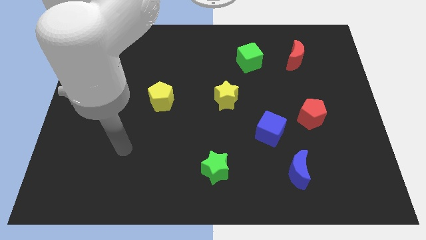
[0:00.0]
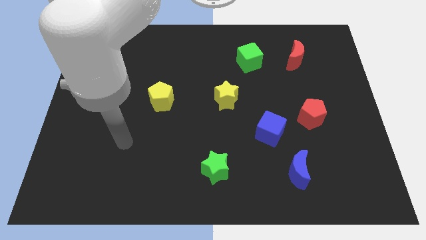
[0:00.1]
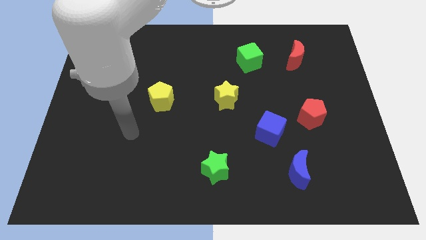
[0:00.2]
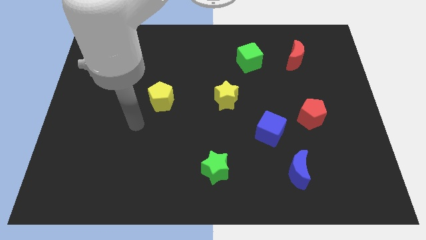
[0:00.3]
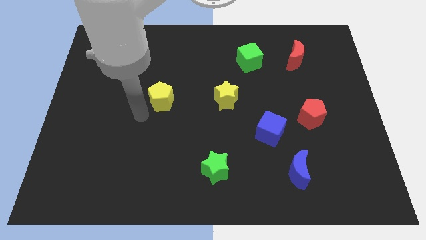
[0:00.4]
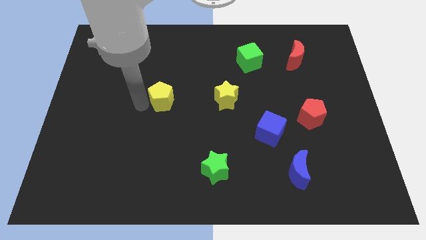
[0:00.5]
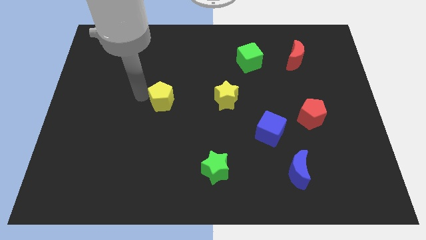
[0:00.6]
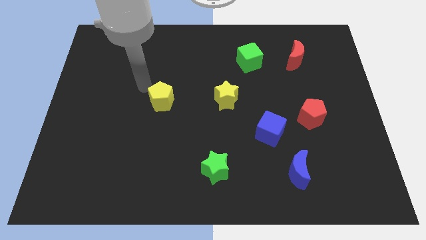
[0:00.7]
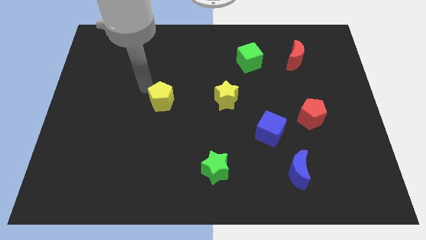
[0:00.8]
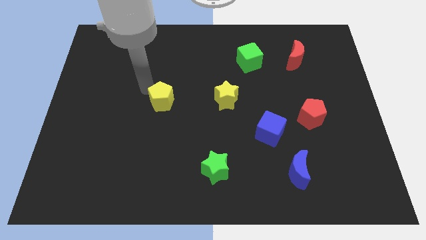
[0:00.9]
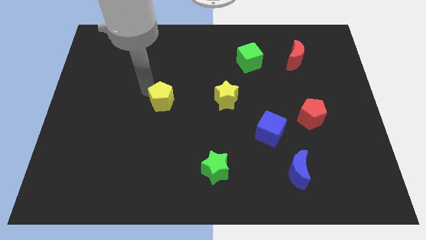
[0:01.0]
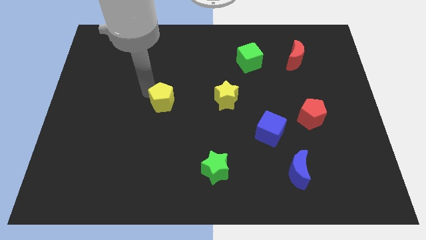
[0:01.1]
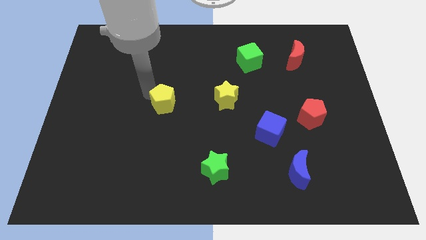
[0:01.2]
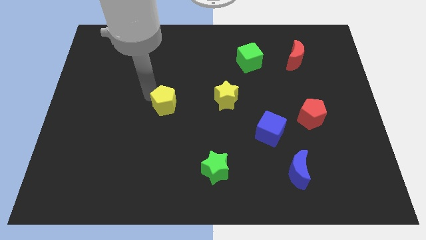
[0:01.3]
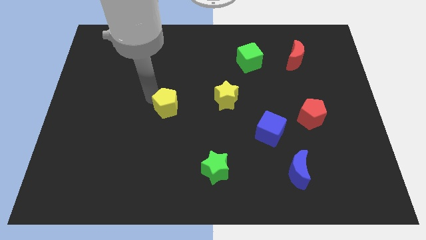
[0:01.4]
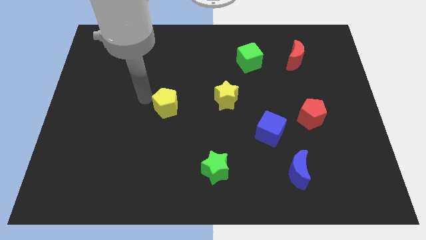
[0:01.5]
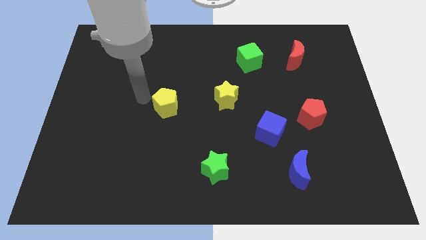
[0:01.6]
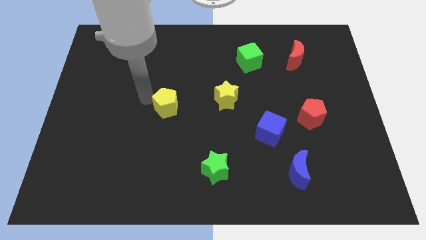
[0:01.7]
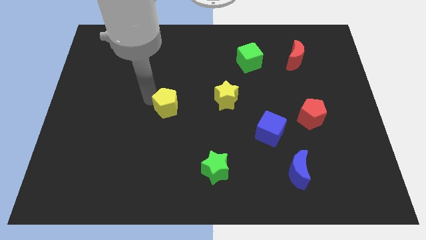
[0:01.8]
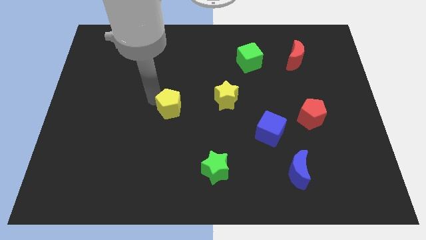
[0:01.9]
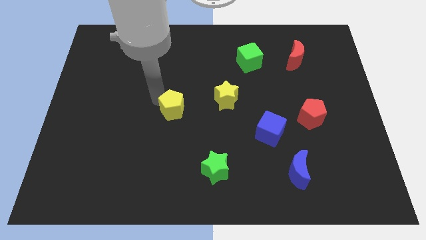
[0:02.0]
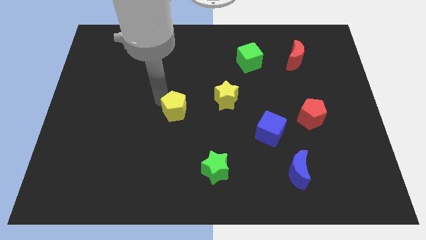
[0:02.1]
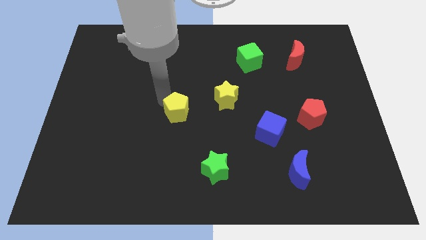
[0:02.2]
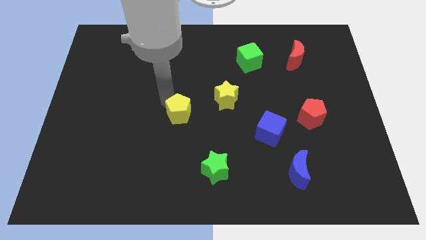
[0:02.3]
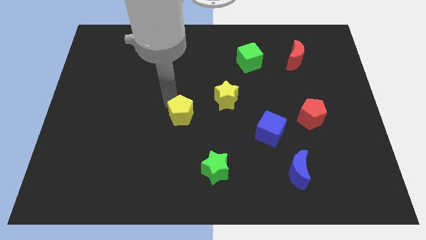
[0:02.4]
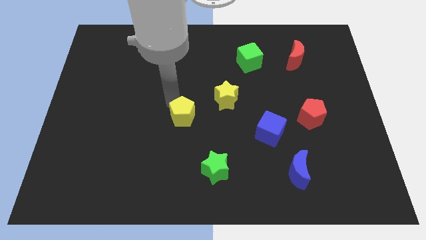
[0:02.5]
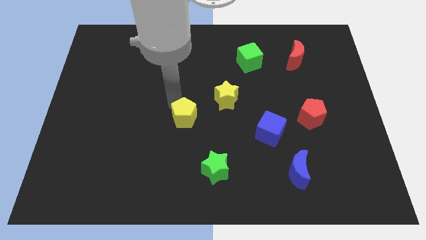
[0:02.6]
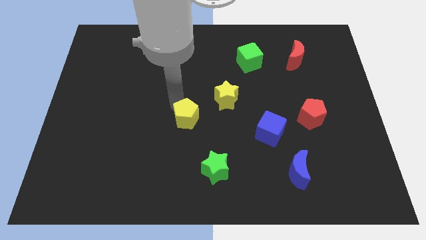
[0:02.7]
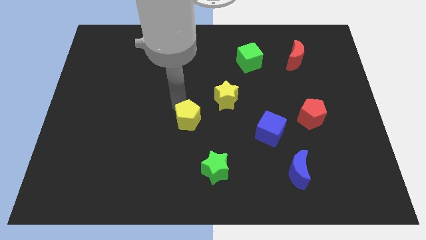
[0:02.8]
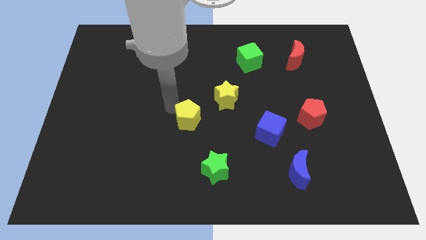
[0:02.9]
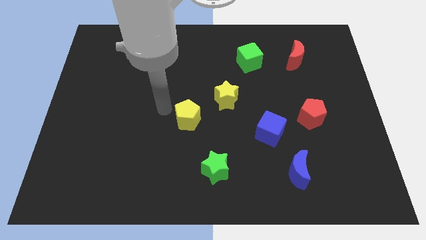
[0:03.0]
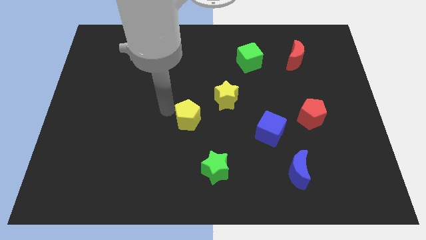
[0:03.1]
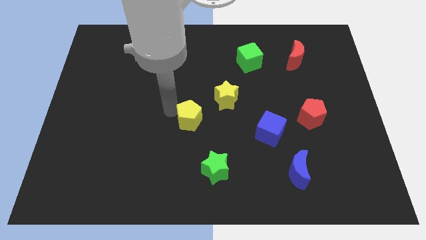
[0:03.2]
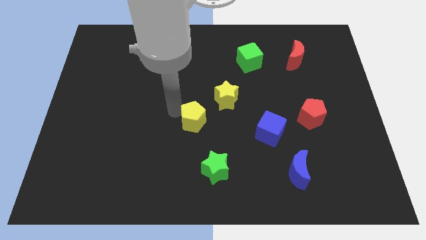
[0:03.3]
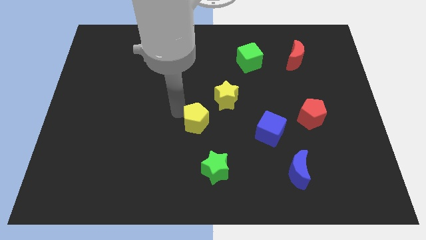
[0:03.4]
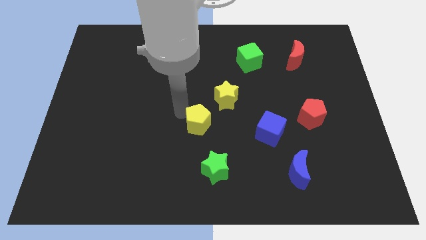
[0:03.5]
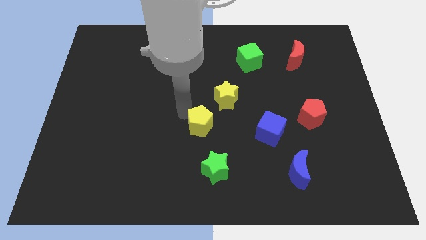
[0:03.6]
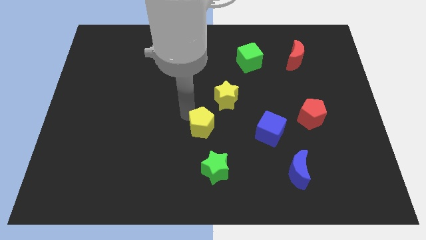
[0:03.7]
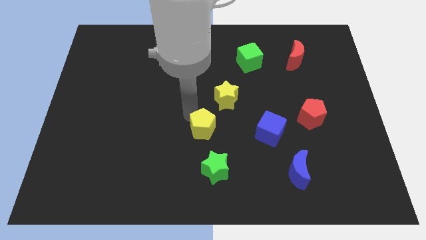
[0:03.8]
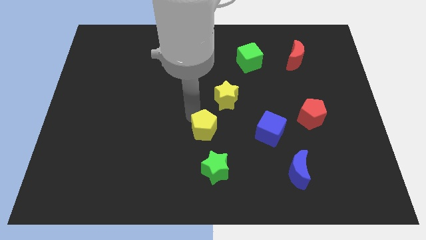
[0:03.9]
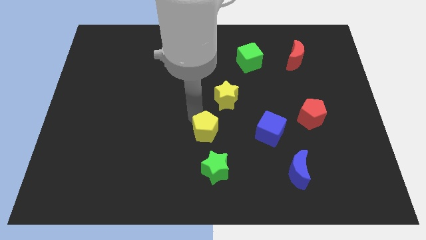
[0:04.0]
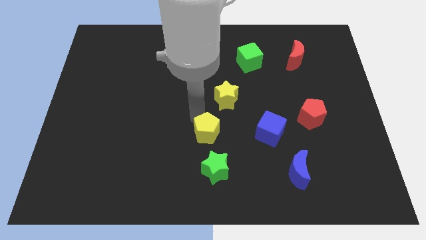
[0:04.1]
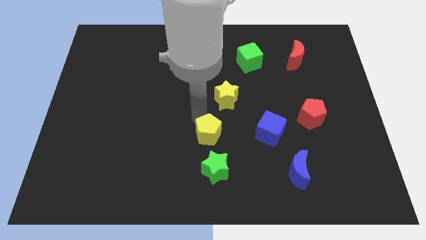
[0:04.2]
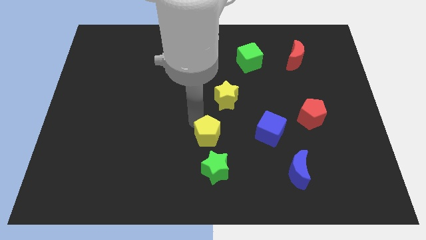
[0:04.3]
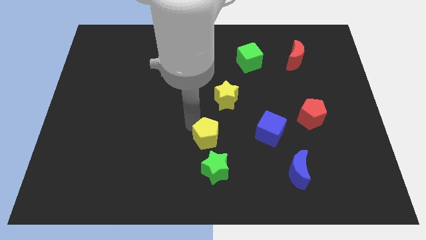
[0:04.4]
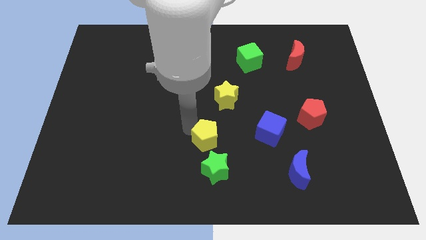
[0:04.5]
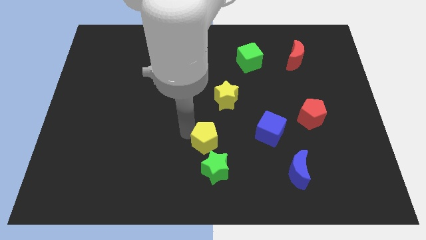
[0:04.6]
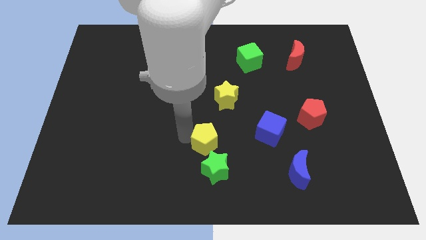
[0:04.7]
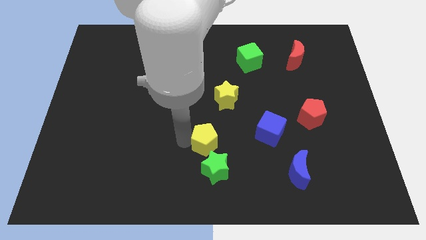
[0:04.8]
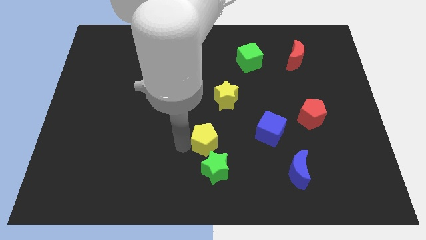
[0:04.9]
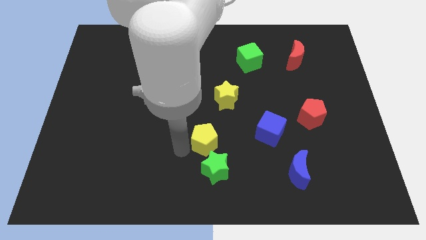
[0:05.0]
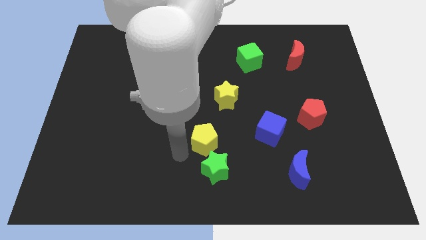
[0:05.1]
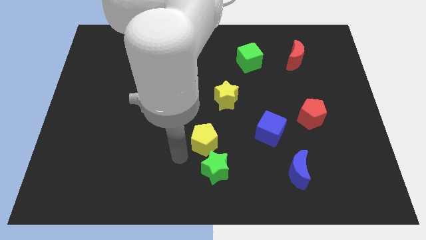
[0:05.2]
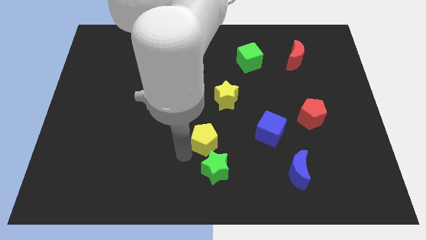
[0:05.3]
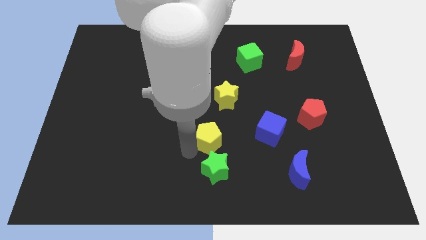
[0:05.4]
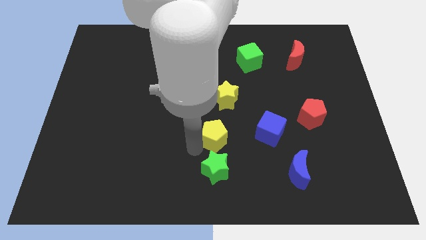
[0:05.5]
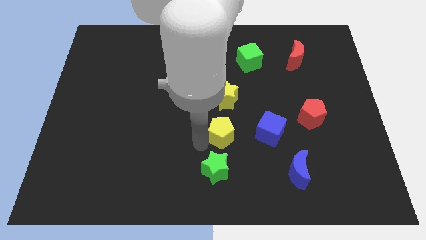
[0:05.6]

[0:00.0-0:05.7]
move the yellow pentagon to the top right side of the green star
